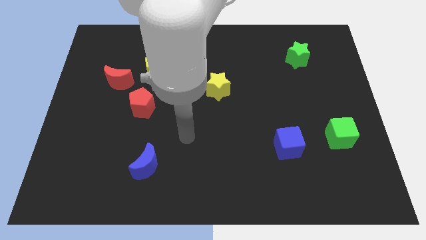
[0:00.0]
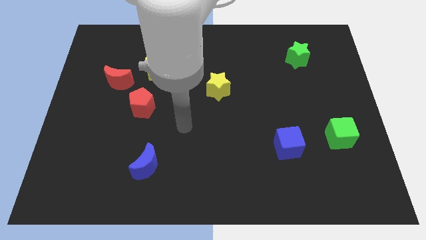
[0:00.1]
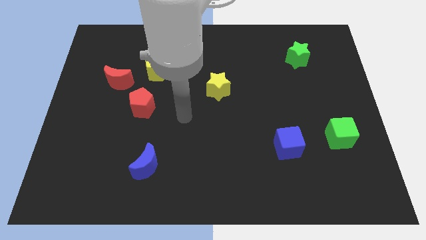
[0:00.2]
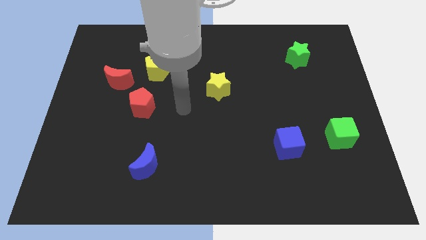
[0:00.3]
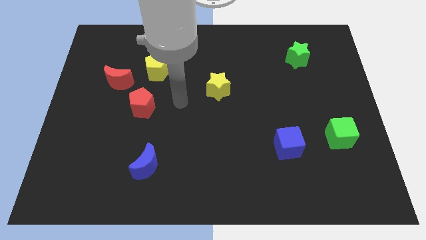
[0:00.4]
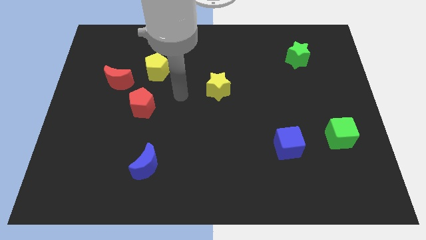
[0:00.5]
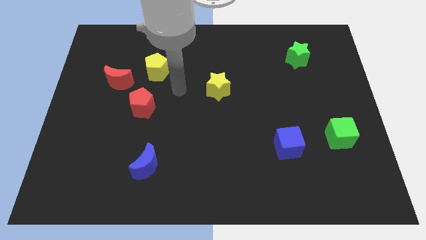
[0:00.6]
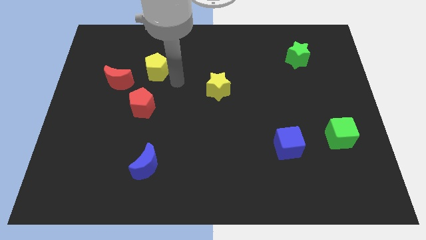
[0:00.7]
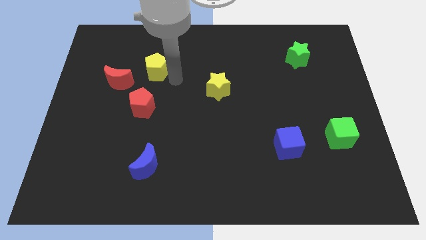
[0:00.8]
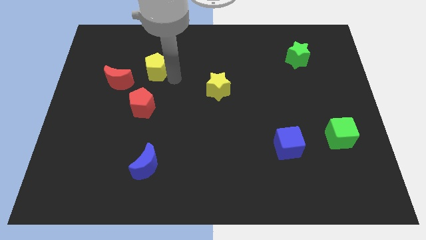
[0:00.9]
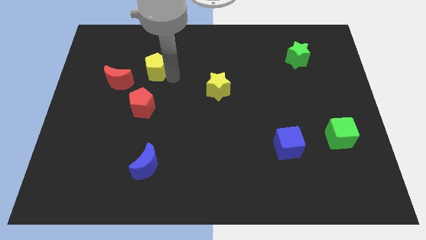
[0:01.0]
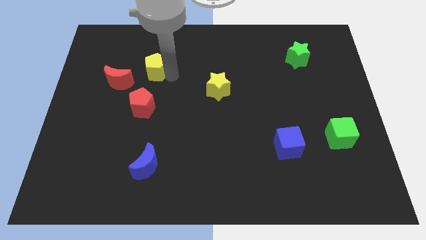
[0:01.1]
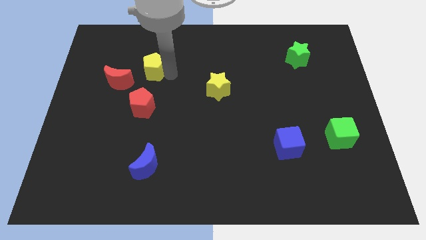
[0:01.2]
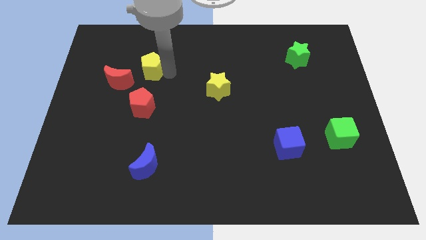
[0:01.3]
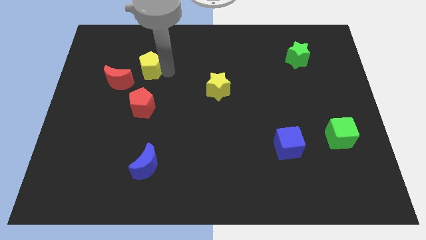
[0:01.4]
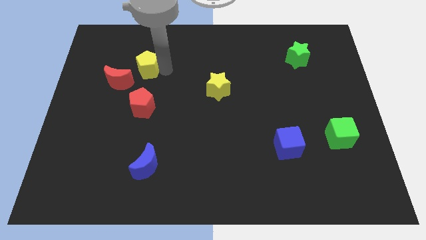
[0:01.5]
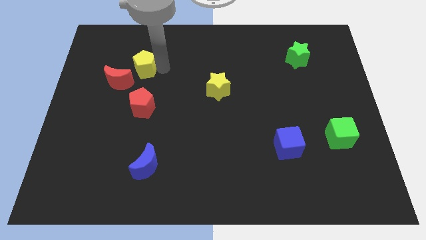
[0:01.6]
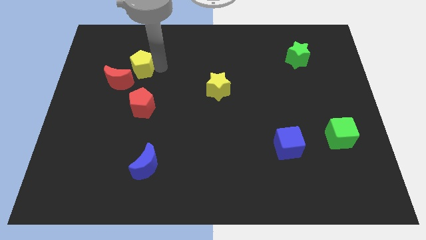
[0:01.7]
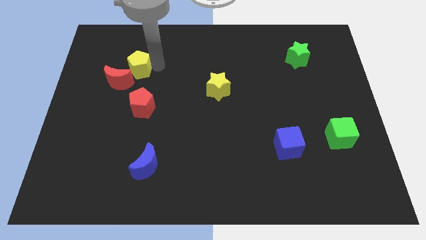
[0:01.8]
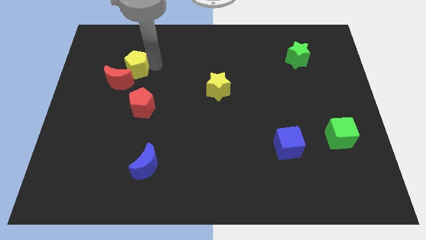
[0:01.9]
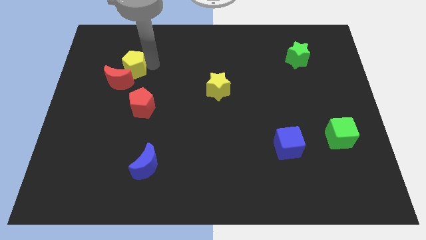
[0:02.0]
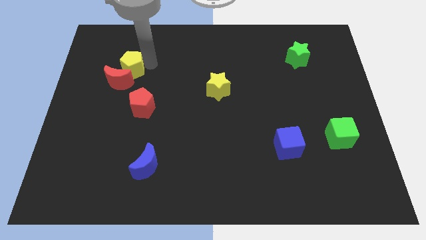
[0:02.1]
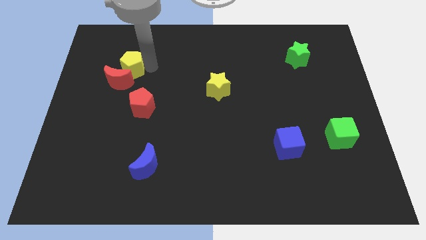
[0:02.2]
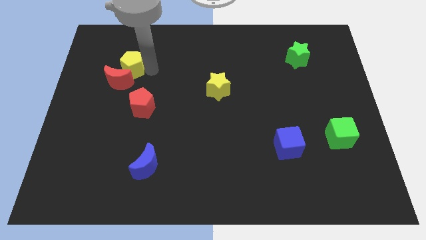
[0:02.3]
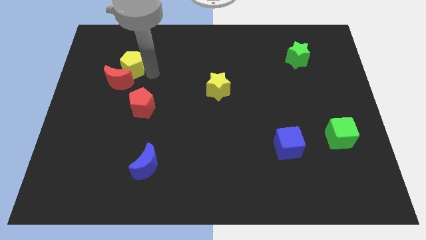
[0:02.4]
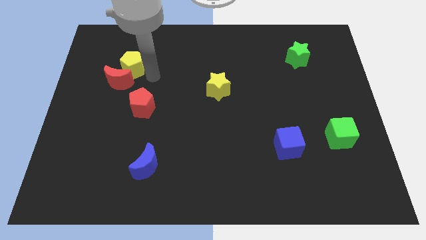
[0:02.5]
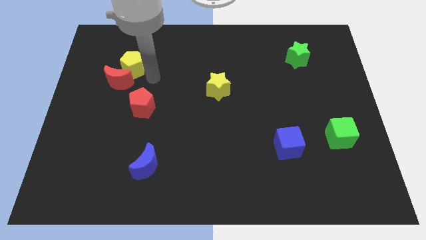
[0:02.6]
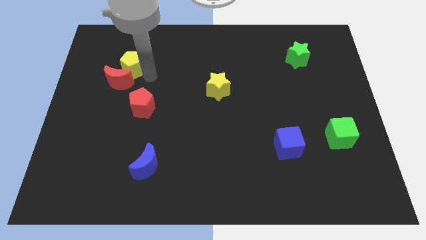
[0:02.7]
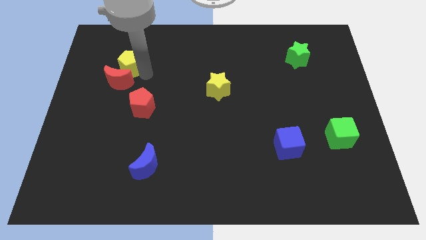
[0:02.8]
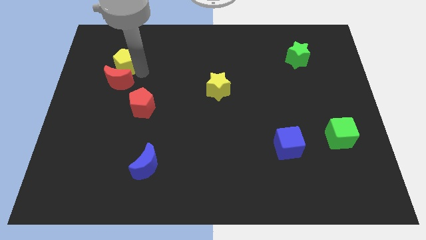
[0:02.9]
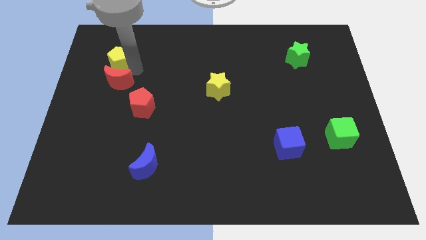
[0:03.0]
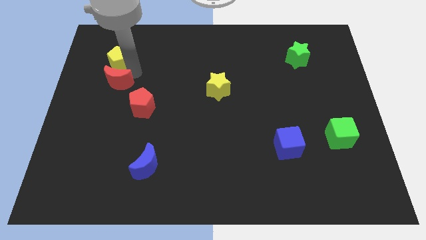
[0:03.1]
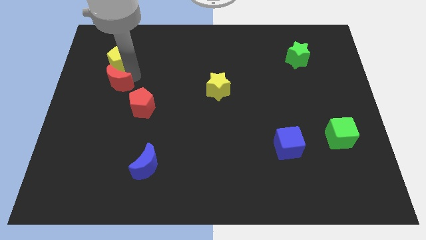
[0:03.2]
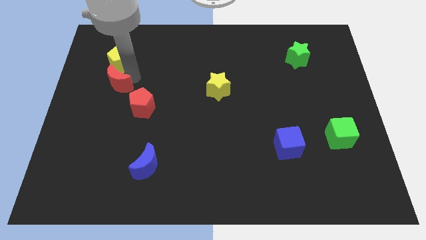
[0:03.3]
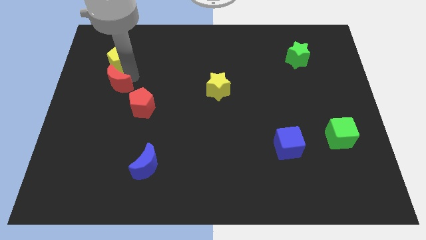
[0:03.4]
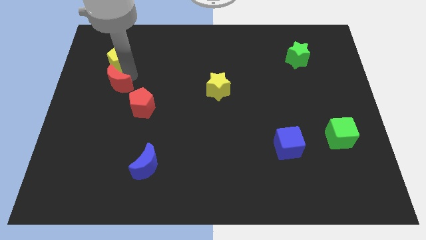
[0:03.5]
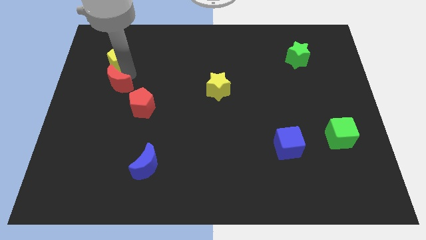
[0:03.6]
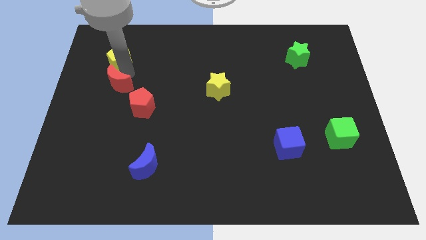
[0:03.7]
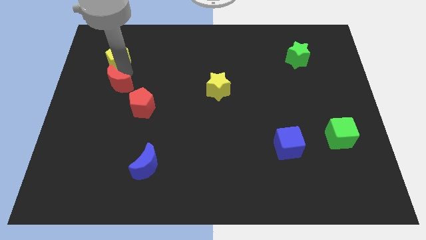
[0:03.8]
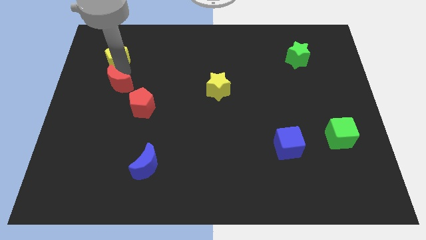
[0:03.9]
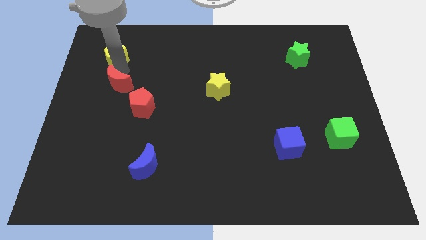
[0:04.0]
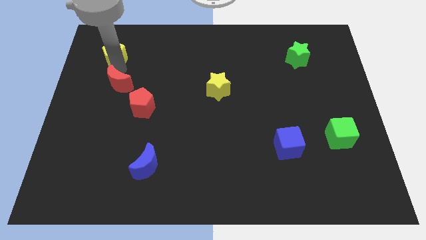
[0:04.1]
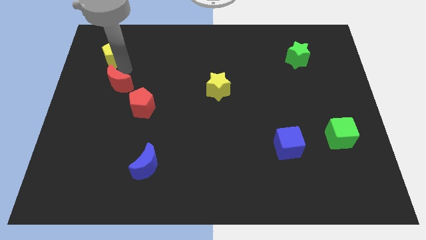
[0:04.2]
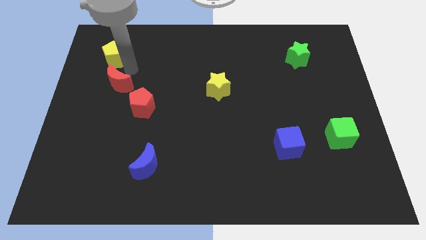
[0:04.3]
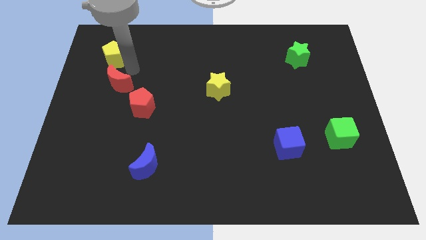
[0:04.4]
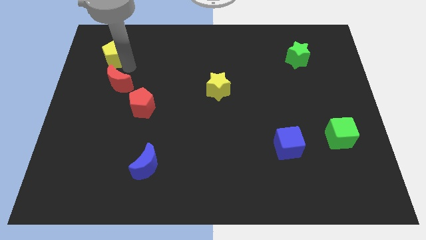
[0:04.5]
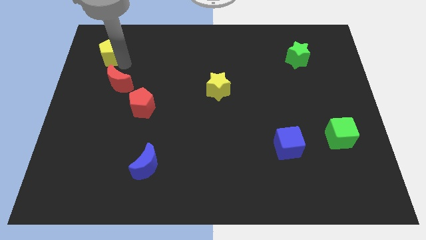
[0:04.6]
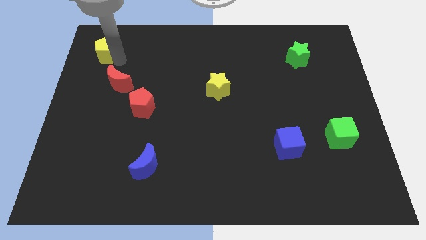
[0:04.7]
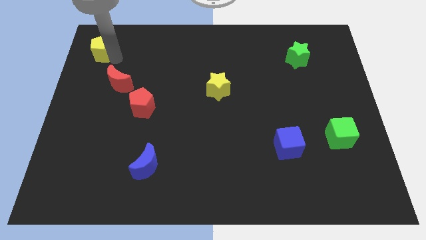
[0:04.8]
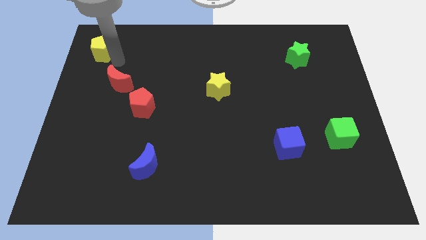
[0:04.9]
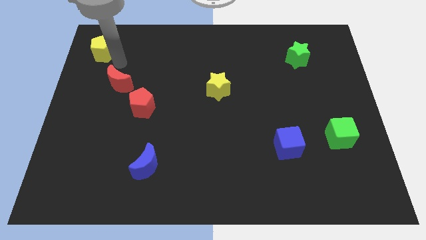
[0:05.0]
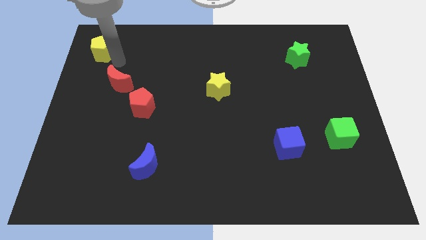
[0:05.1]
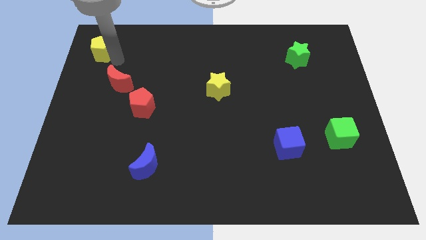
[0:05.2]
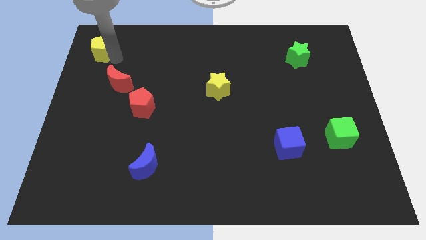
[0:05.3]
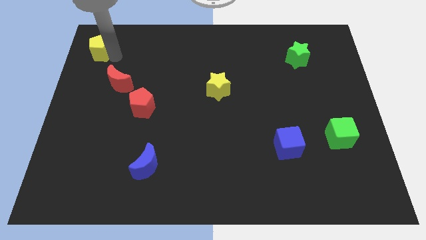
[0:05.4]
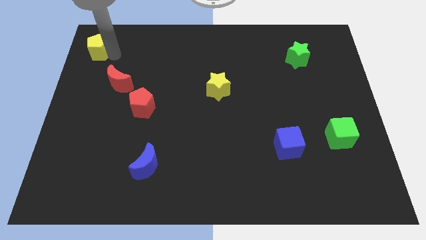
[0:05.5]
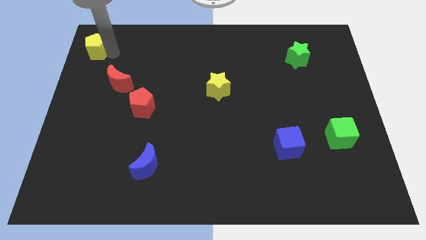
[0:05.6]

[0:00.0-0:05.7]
put the yellow pentagon to the top left corner

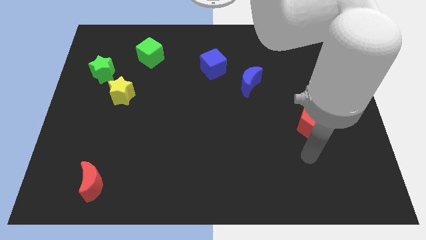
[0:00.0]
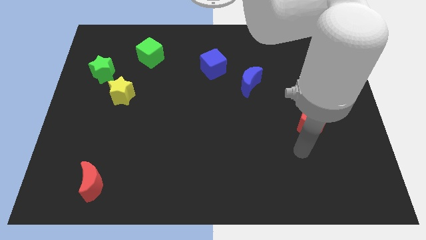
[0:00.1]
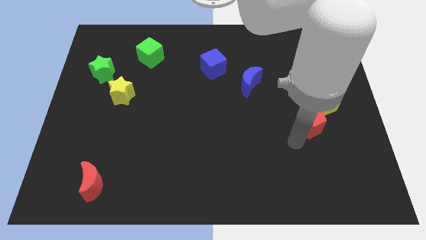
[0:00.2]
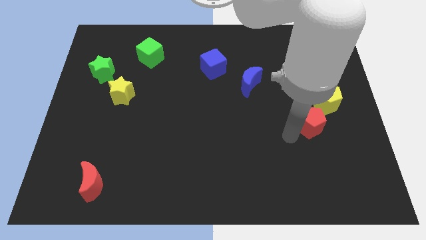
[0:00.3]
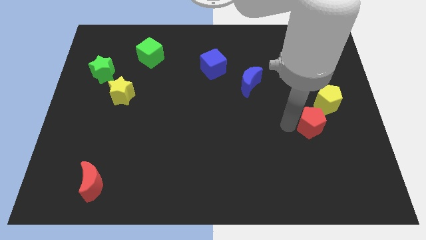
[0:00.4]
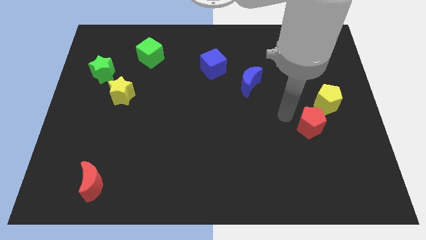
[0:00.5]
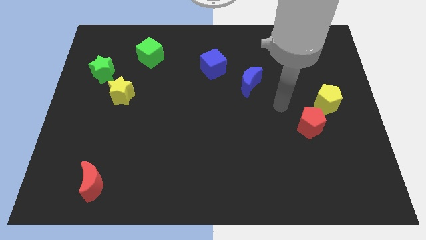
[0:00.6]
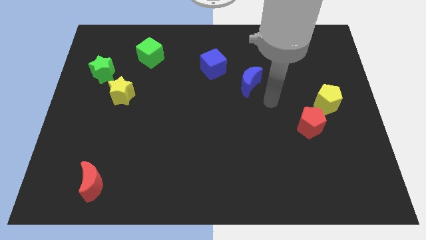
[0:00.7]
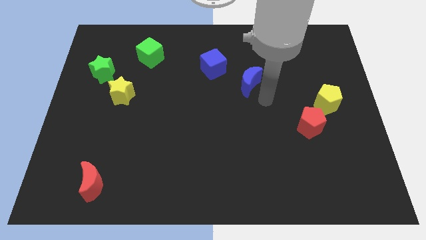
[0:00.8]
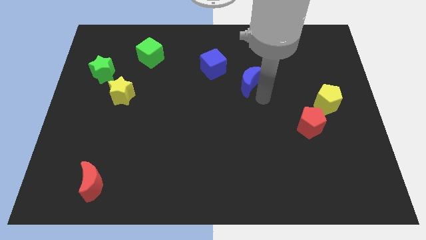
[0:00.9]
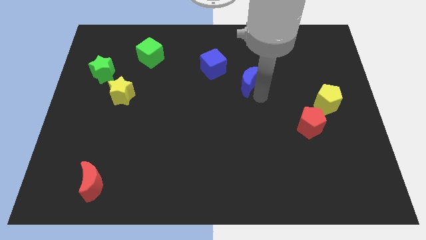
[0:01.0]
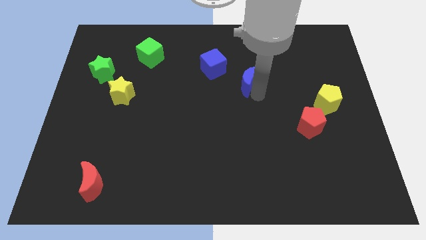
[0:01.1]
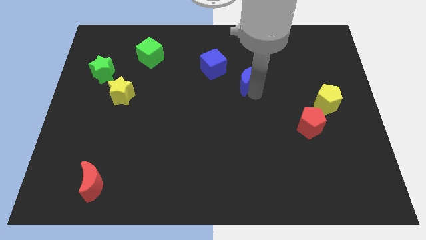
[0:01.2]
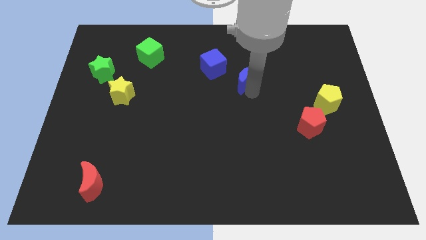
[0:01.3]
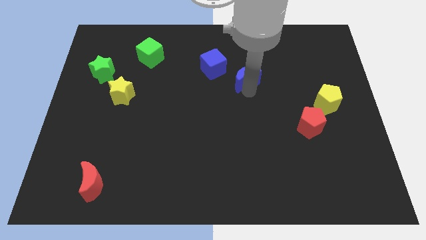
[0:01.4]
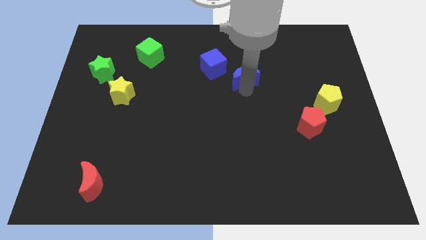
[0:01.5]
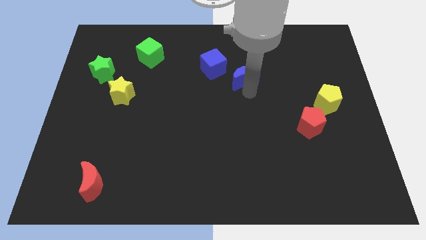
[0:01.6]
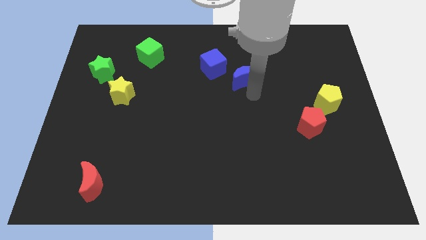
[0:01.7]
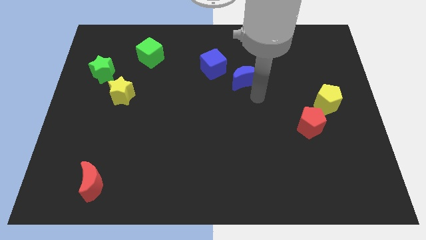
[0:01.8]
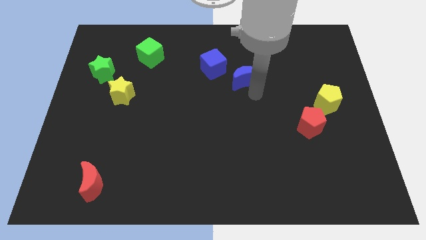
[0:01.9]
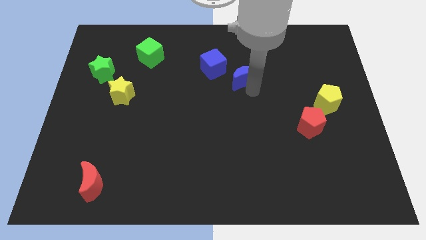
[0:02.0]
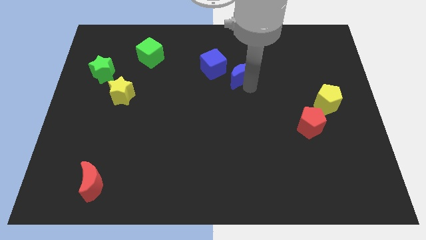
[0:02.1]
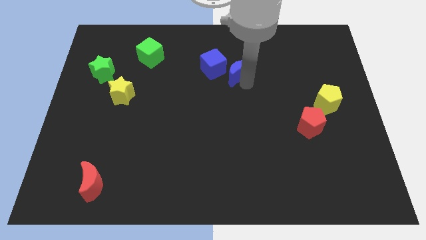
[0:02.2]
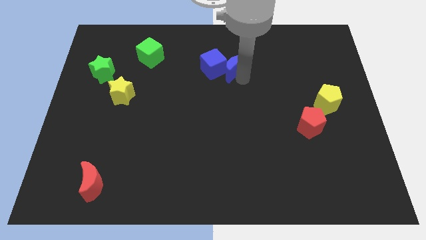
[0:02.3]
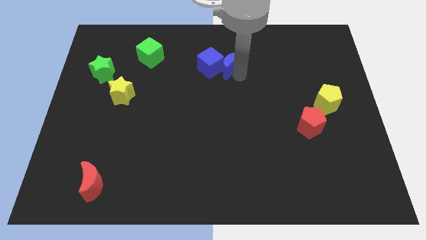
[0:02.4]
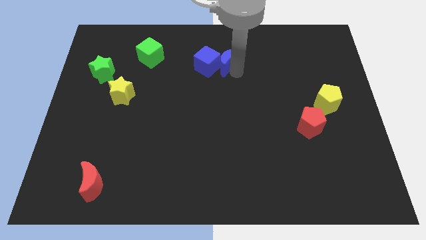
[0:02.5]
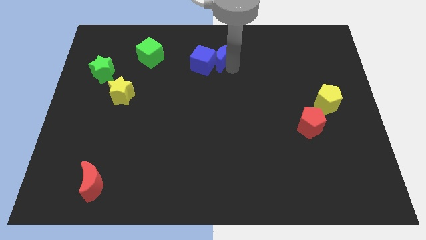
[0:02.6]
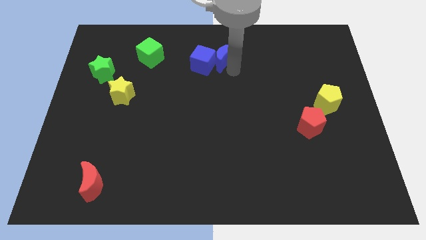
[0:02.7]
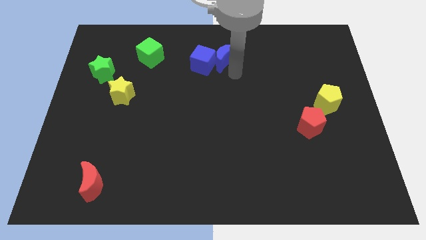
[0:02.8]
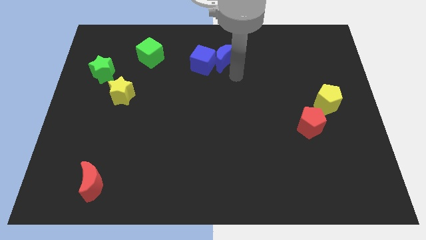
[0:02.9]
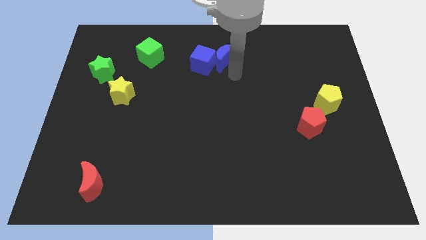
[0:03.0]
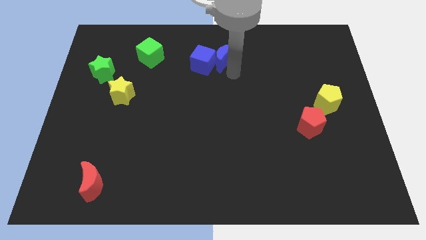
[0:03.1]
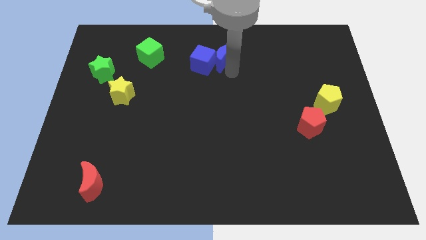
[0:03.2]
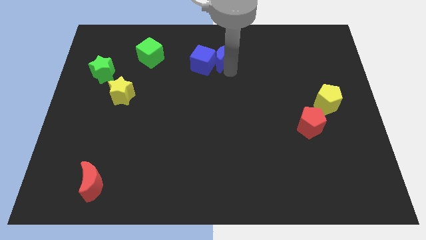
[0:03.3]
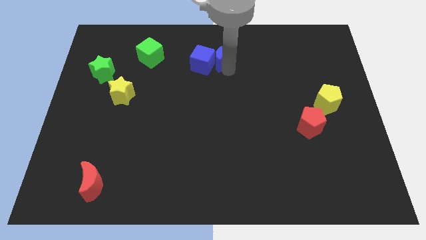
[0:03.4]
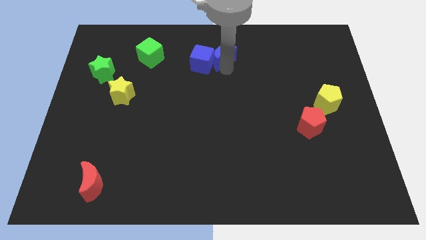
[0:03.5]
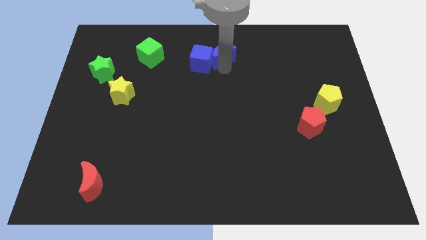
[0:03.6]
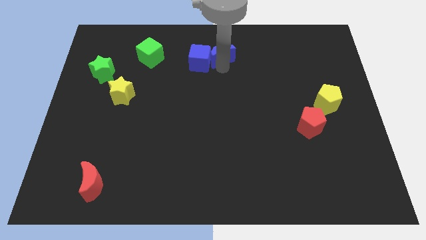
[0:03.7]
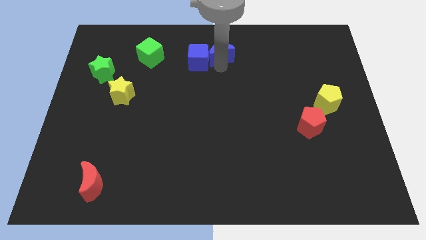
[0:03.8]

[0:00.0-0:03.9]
slide the blue moon to the top
